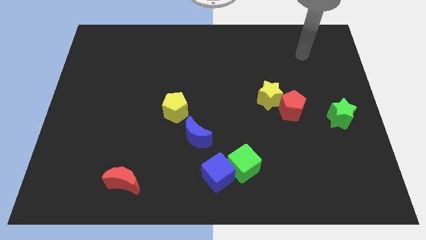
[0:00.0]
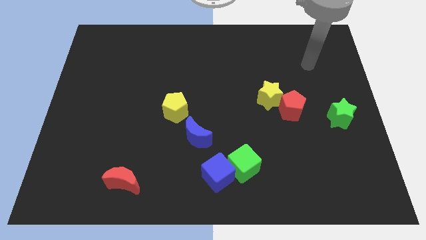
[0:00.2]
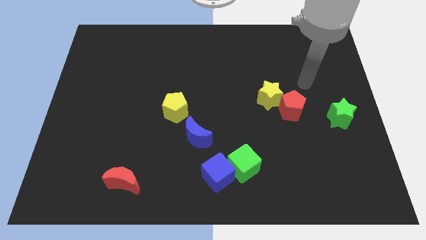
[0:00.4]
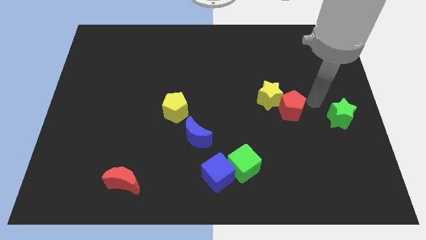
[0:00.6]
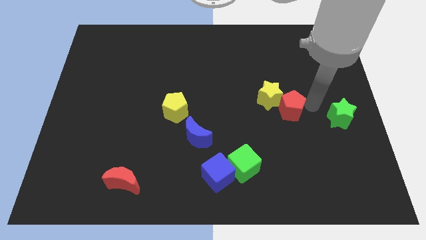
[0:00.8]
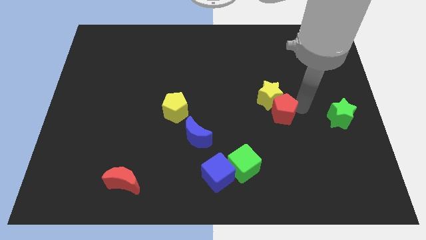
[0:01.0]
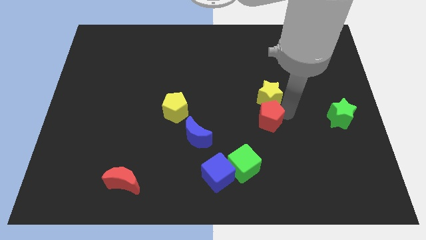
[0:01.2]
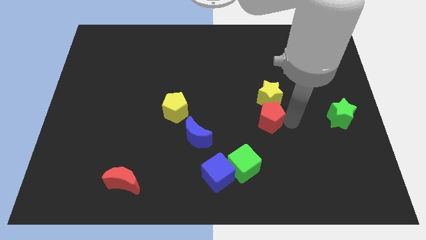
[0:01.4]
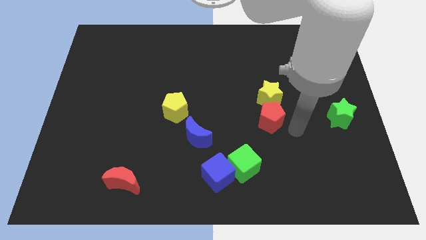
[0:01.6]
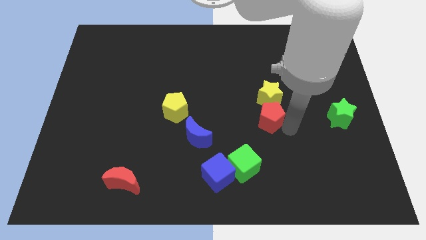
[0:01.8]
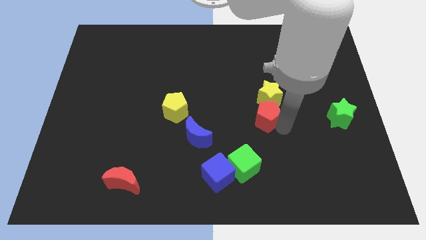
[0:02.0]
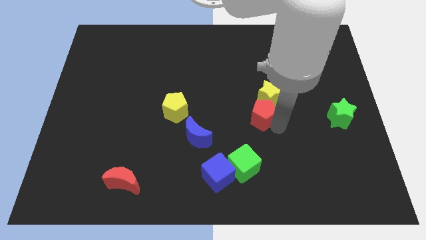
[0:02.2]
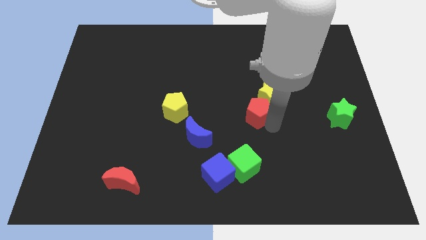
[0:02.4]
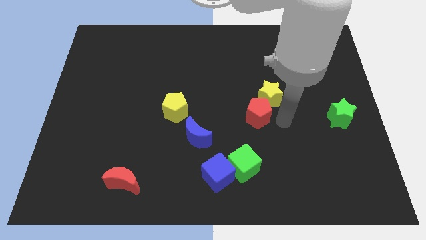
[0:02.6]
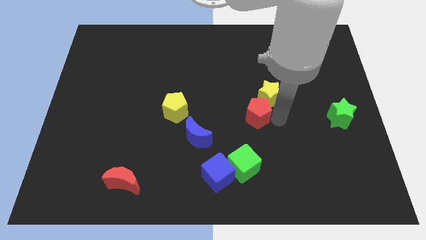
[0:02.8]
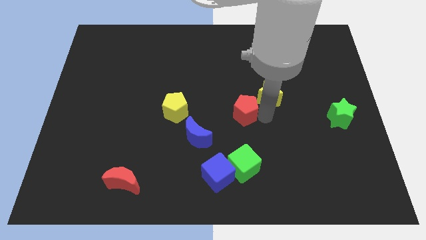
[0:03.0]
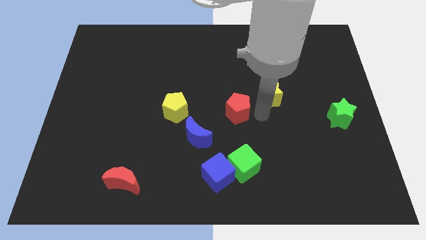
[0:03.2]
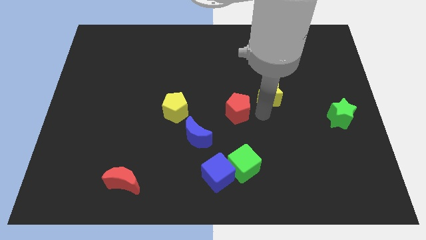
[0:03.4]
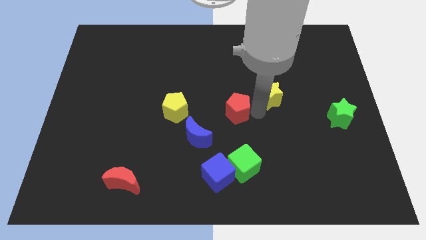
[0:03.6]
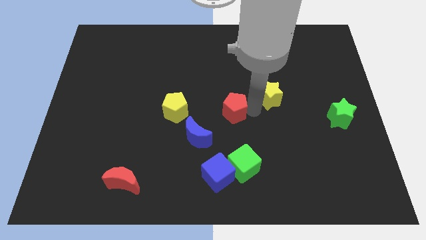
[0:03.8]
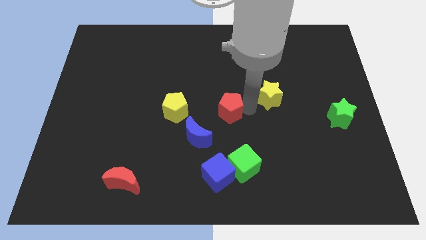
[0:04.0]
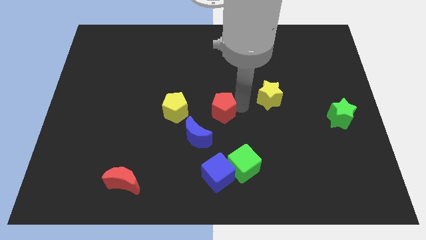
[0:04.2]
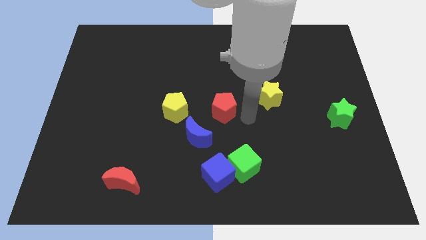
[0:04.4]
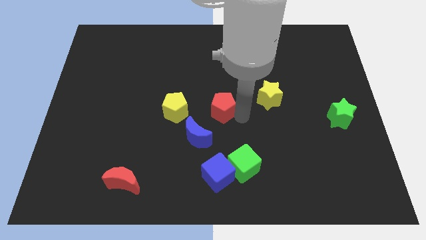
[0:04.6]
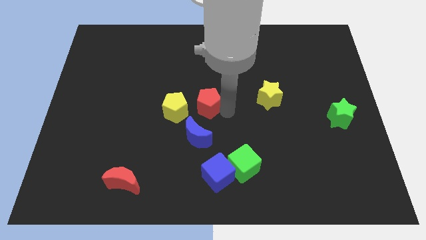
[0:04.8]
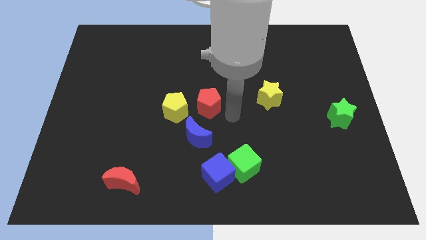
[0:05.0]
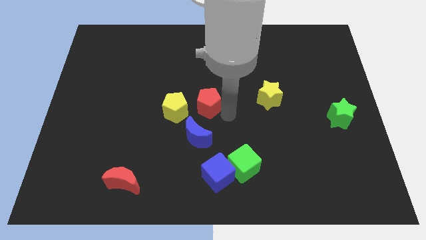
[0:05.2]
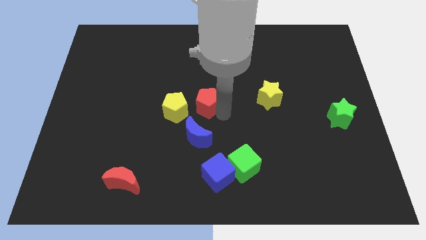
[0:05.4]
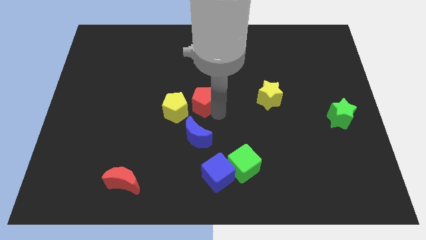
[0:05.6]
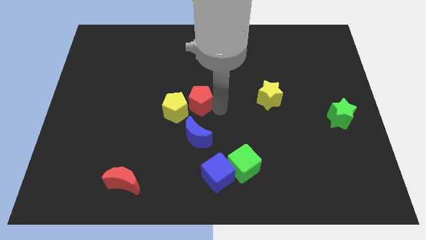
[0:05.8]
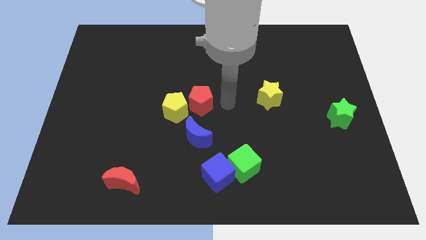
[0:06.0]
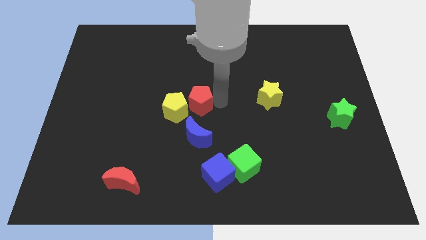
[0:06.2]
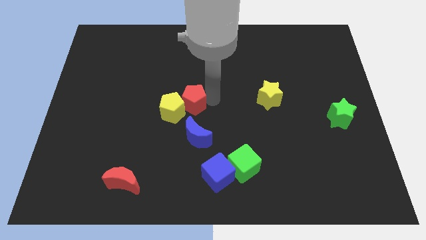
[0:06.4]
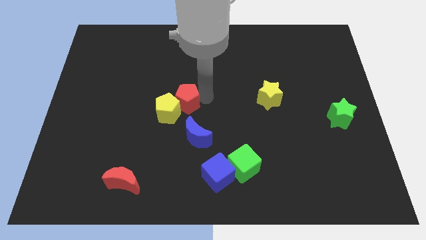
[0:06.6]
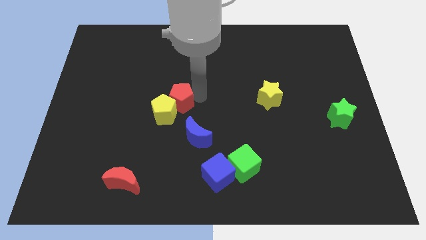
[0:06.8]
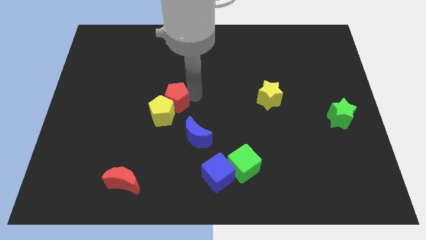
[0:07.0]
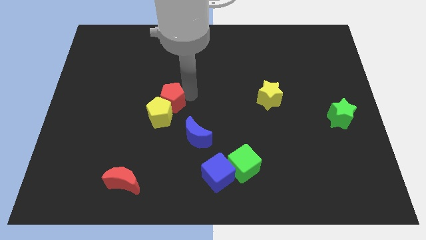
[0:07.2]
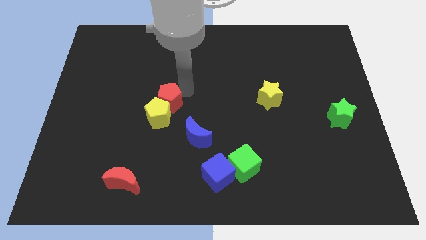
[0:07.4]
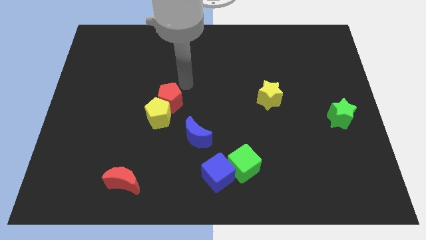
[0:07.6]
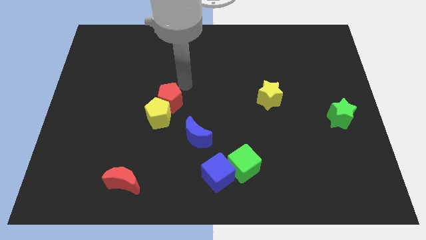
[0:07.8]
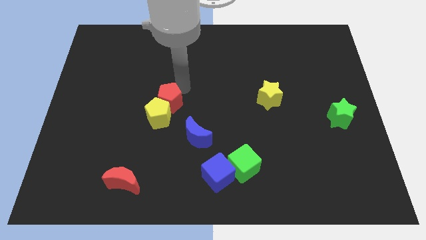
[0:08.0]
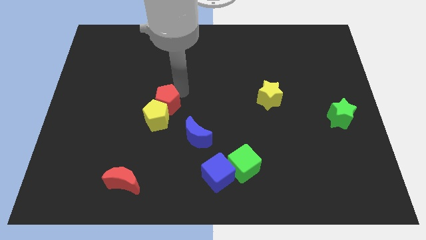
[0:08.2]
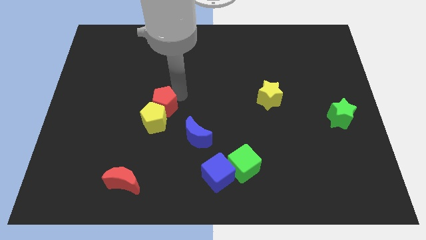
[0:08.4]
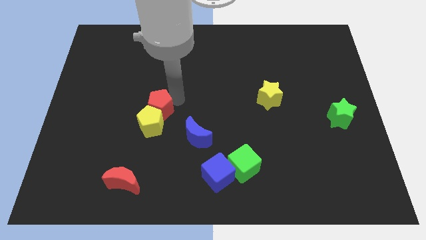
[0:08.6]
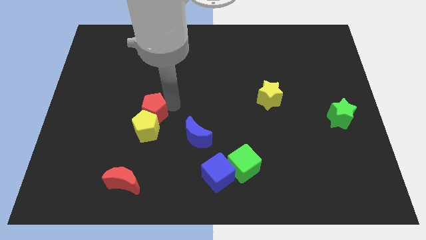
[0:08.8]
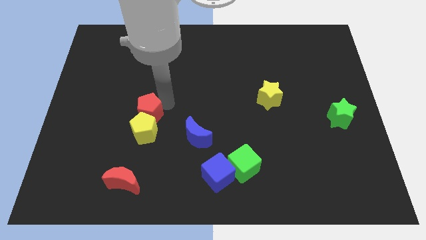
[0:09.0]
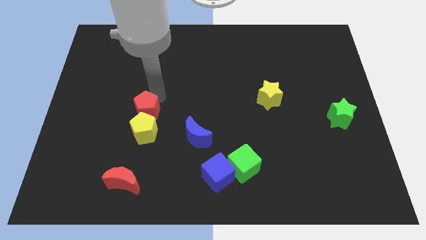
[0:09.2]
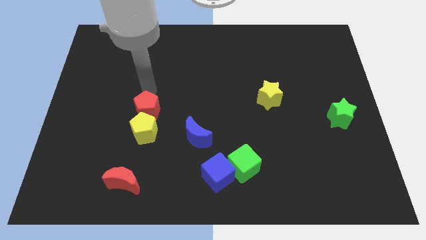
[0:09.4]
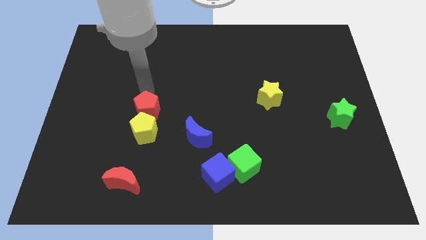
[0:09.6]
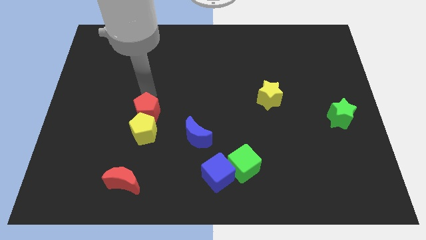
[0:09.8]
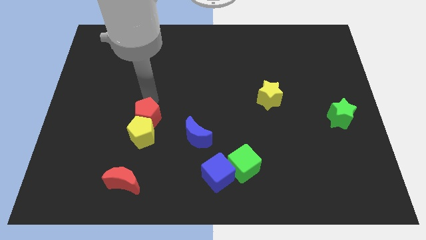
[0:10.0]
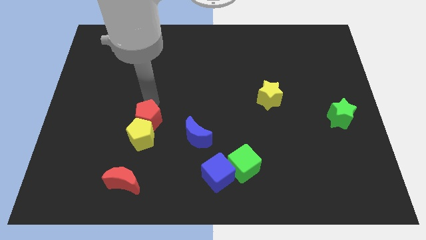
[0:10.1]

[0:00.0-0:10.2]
move the red pentagon to the left side of the blue moon

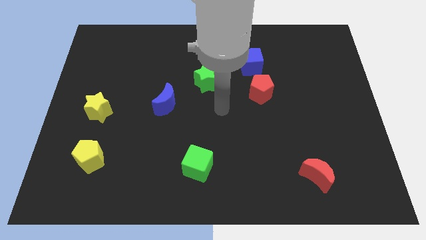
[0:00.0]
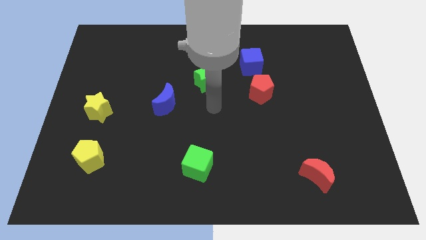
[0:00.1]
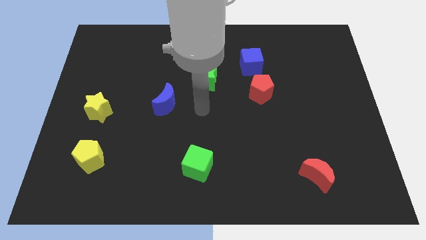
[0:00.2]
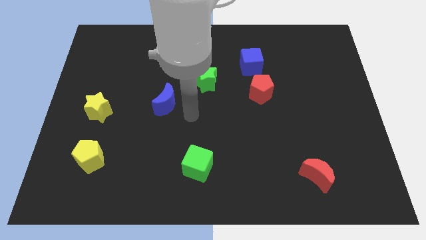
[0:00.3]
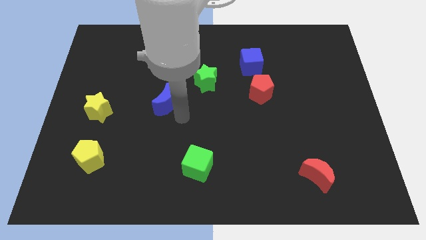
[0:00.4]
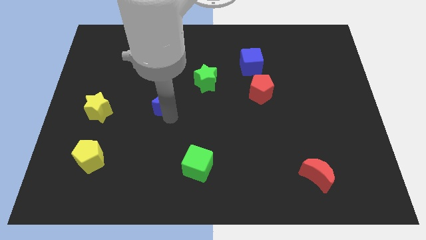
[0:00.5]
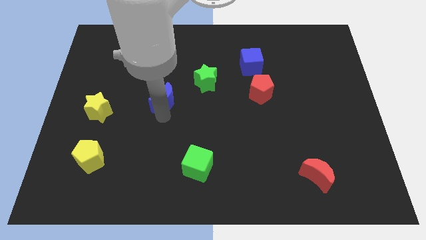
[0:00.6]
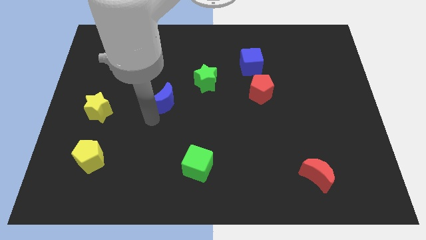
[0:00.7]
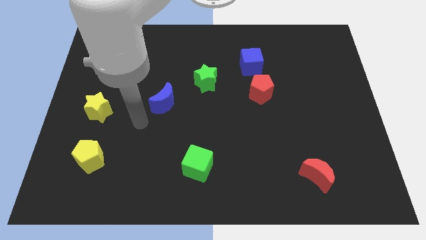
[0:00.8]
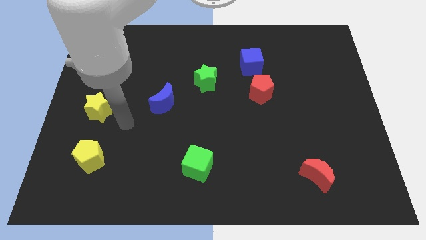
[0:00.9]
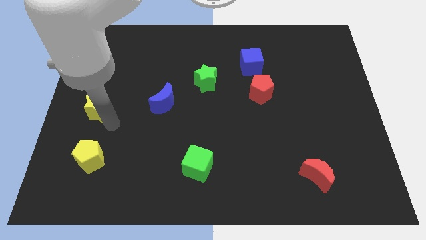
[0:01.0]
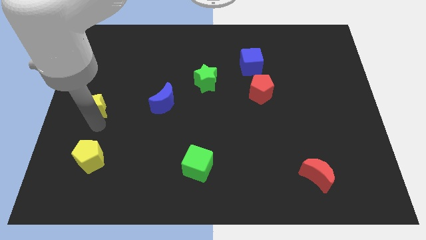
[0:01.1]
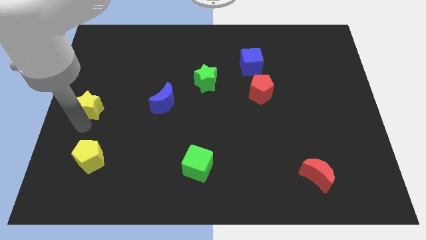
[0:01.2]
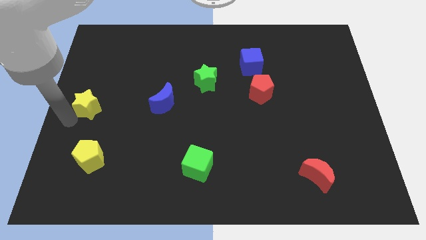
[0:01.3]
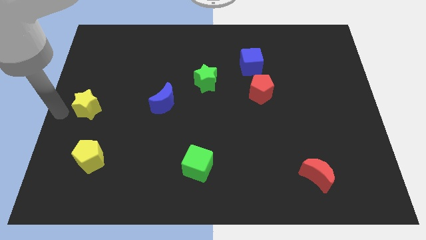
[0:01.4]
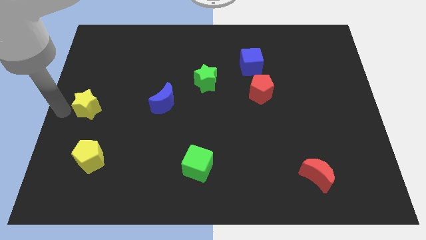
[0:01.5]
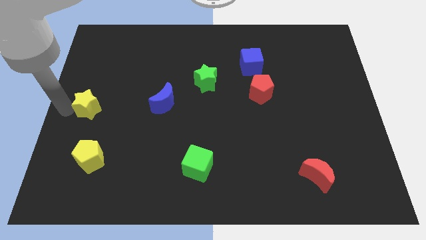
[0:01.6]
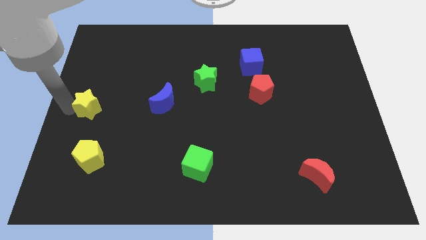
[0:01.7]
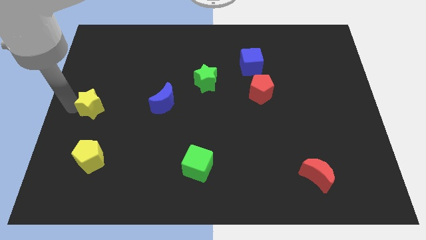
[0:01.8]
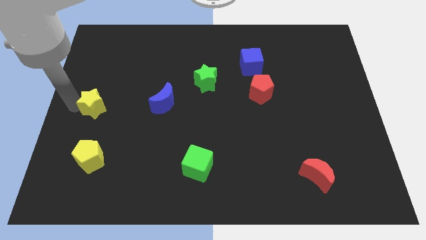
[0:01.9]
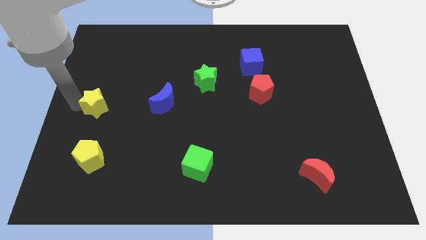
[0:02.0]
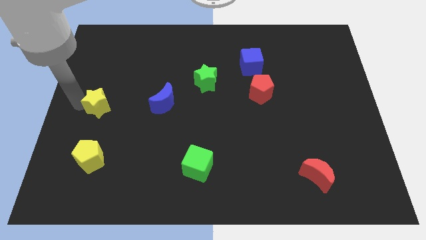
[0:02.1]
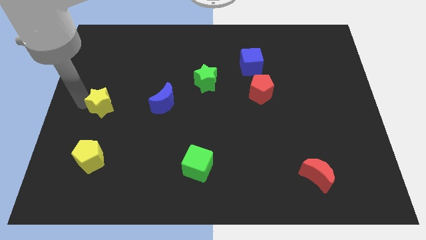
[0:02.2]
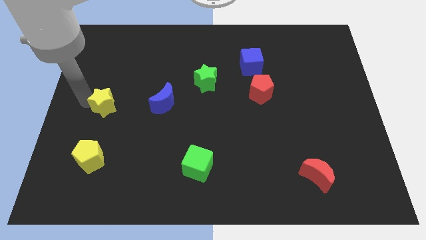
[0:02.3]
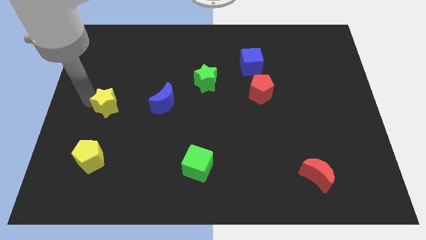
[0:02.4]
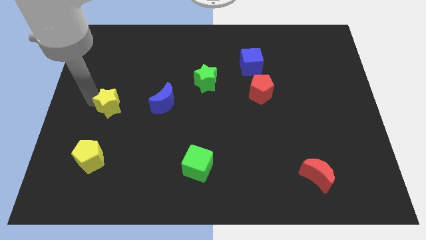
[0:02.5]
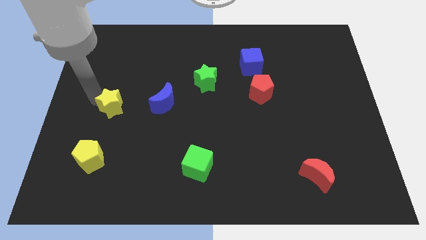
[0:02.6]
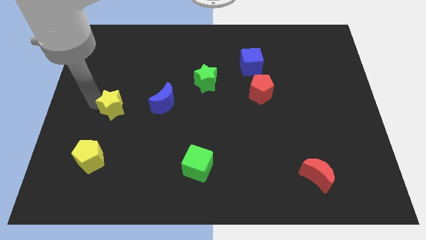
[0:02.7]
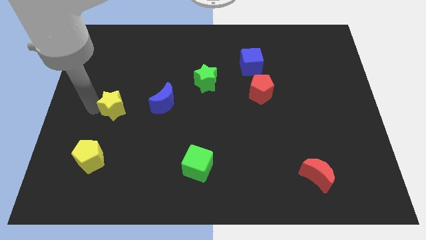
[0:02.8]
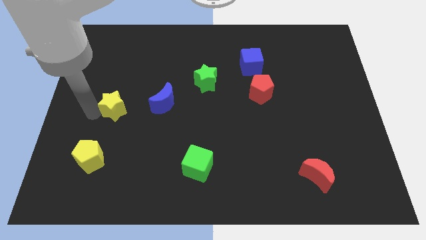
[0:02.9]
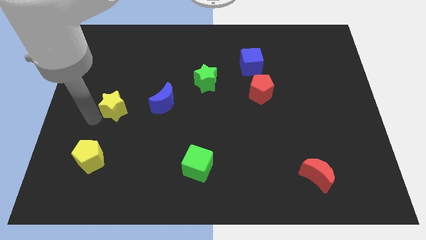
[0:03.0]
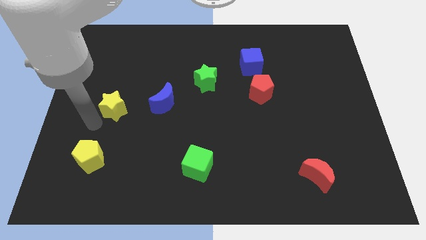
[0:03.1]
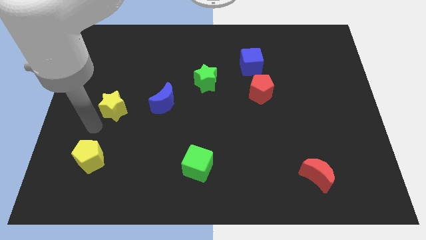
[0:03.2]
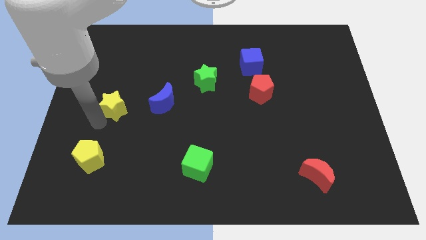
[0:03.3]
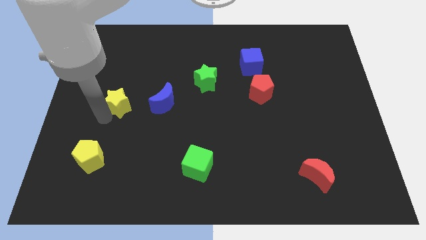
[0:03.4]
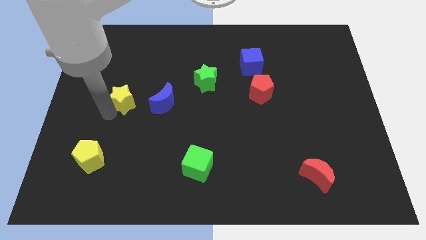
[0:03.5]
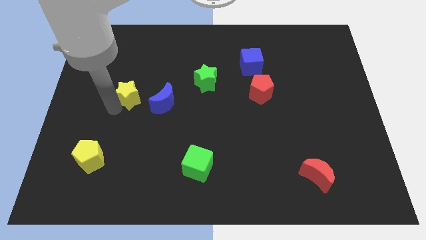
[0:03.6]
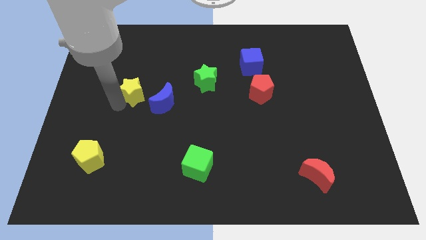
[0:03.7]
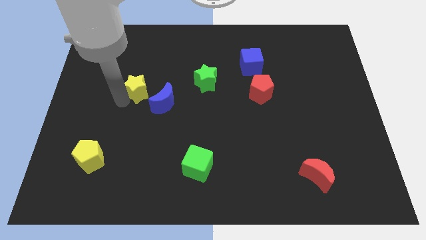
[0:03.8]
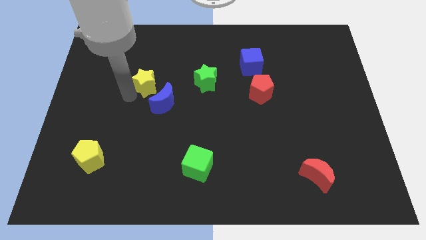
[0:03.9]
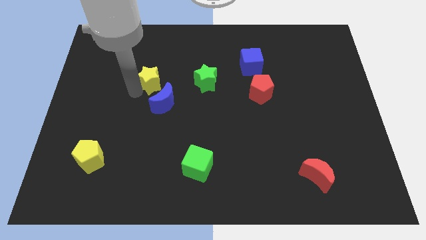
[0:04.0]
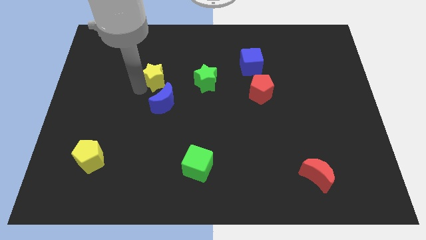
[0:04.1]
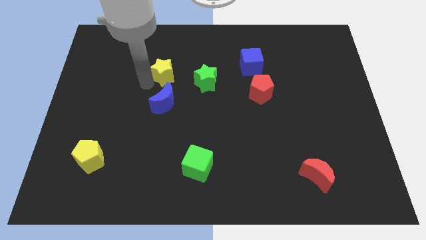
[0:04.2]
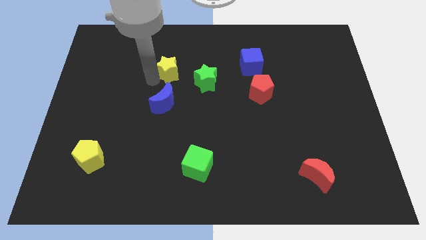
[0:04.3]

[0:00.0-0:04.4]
put the yellow star to the top left of the green star
